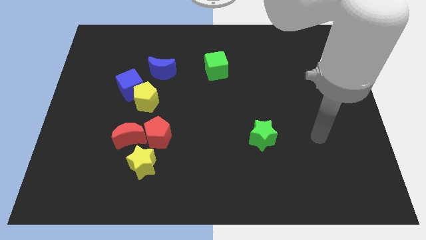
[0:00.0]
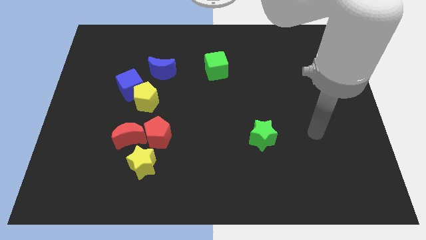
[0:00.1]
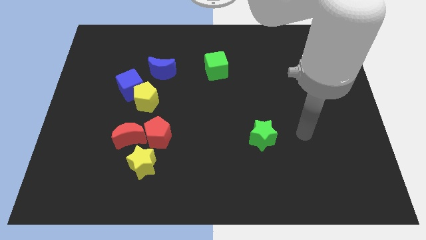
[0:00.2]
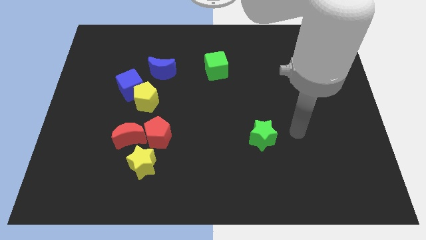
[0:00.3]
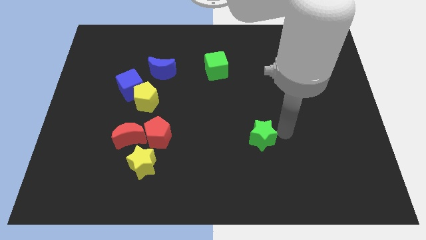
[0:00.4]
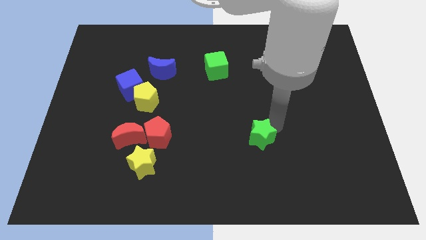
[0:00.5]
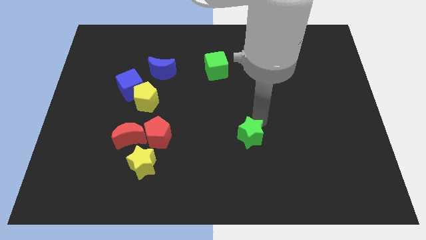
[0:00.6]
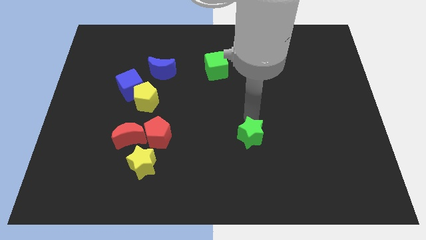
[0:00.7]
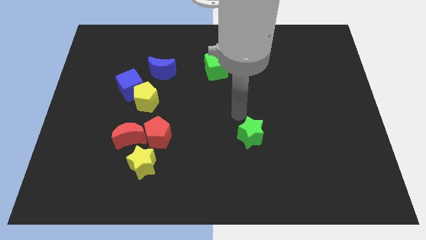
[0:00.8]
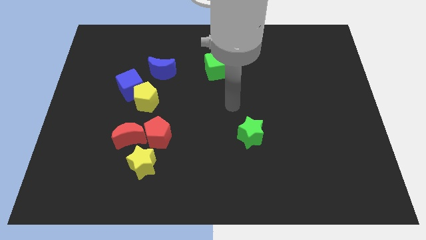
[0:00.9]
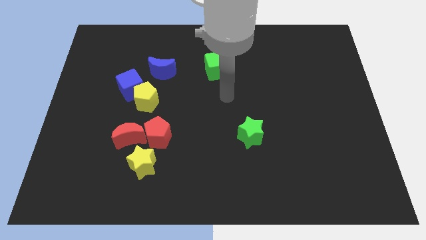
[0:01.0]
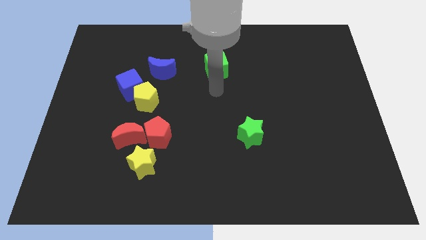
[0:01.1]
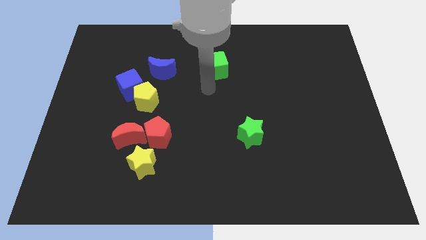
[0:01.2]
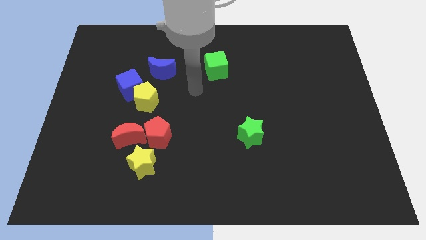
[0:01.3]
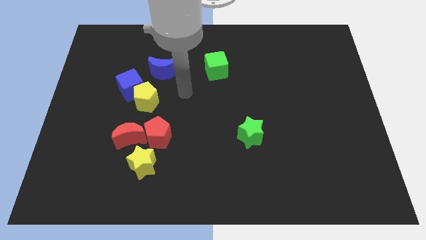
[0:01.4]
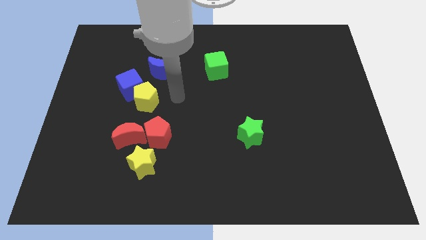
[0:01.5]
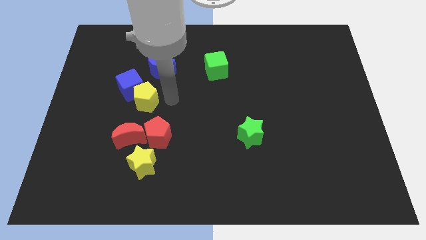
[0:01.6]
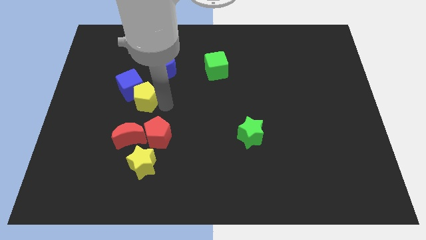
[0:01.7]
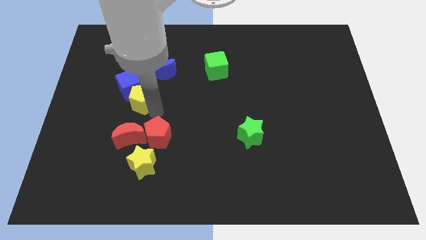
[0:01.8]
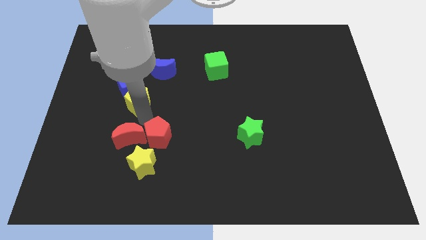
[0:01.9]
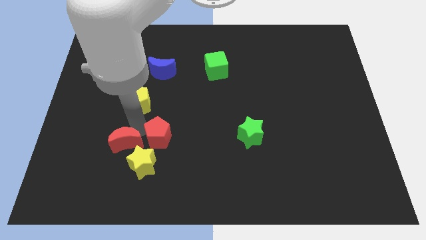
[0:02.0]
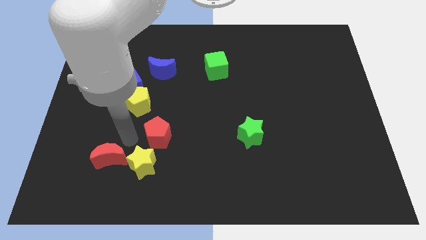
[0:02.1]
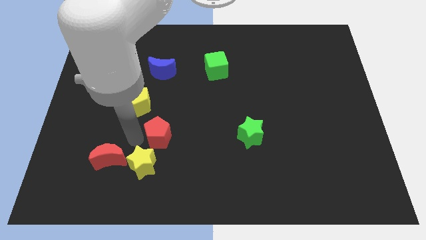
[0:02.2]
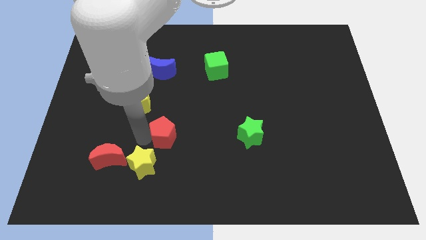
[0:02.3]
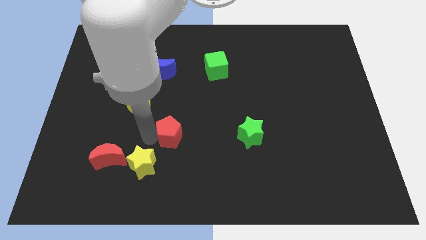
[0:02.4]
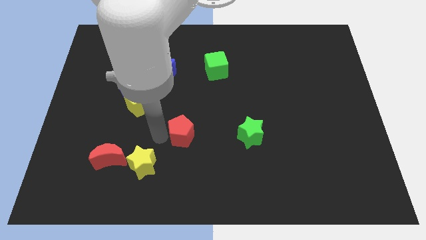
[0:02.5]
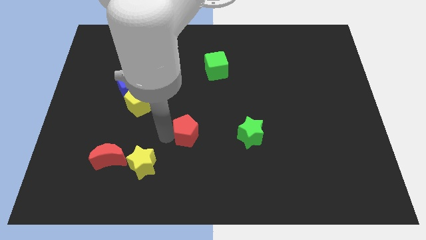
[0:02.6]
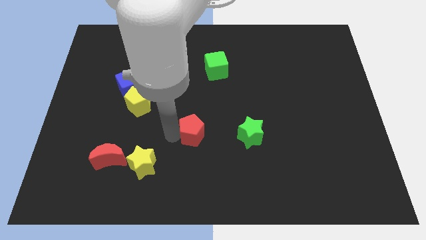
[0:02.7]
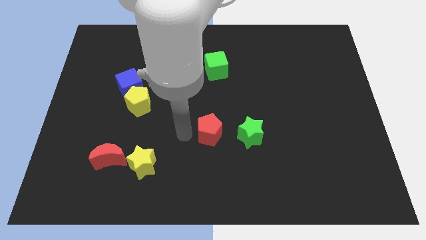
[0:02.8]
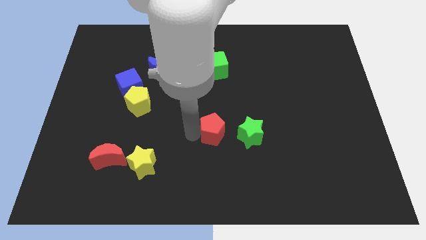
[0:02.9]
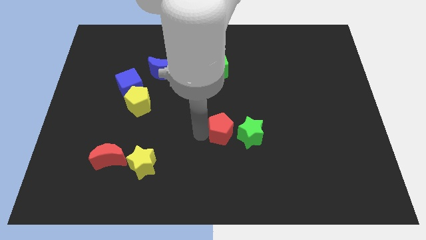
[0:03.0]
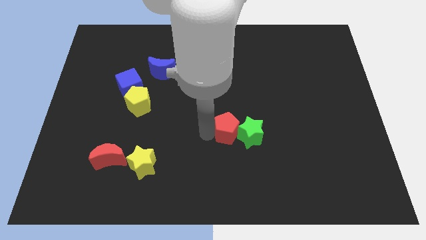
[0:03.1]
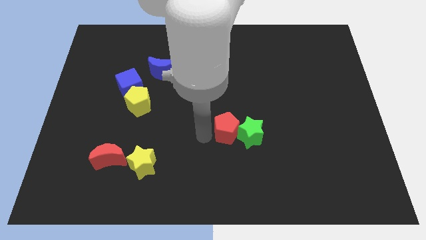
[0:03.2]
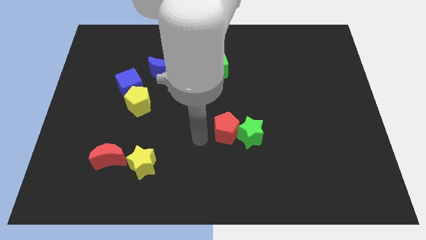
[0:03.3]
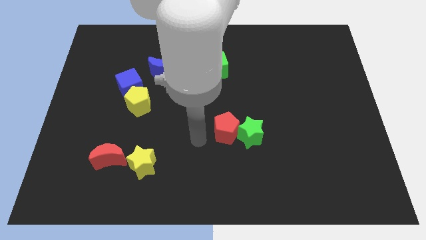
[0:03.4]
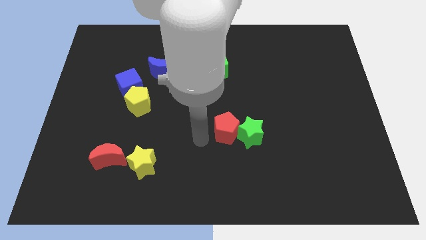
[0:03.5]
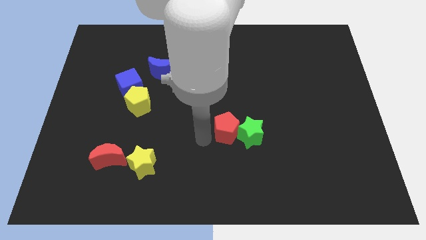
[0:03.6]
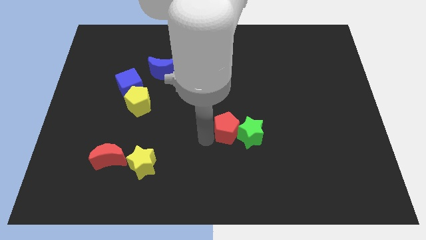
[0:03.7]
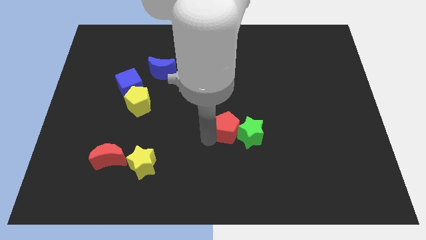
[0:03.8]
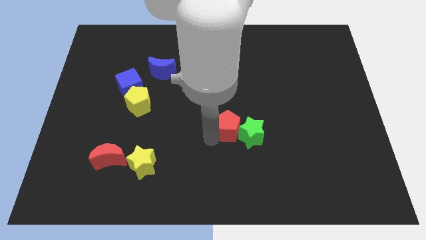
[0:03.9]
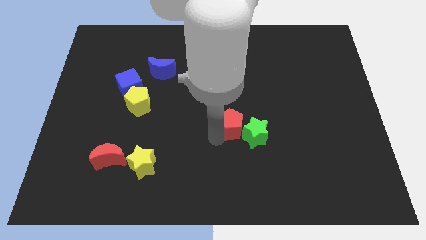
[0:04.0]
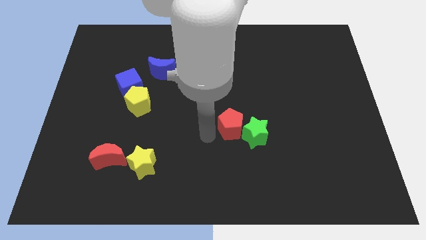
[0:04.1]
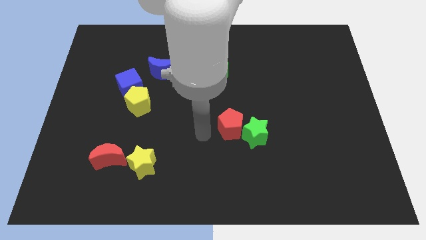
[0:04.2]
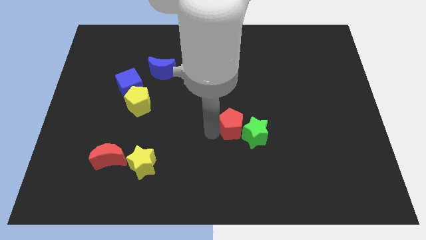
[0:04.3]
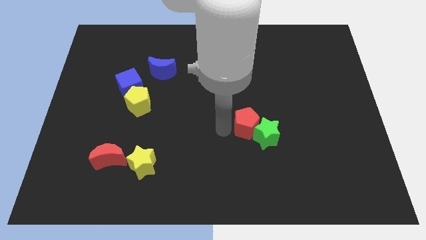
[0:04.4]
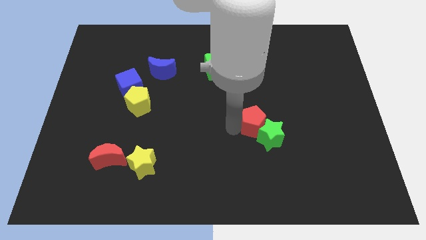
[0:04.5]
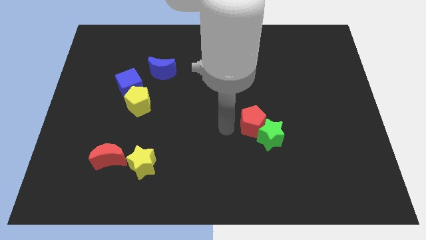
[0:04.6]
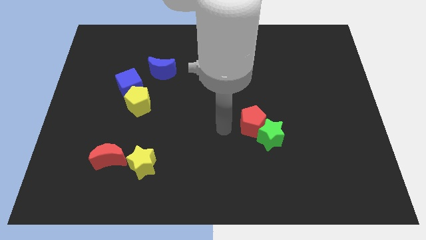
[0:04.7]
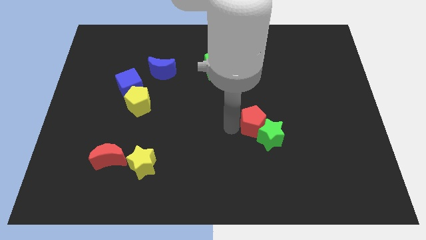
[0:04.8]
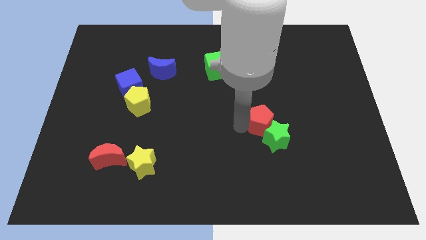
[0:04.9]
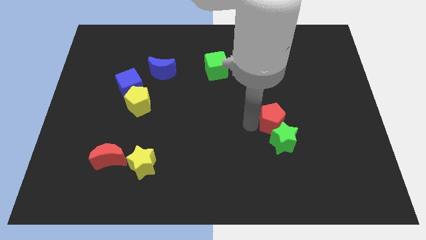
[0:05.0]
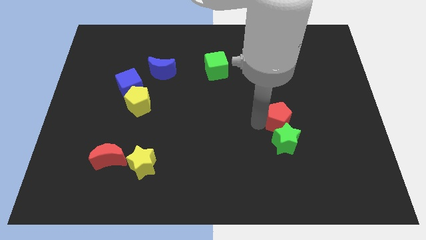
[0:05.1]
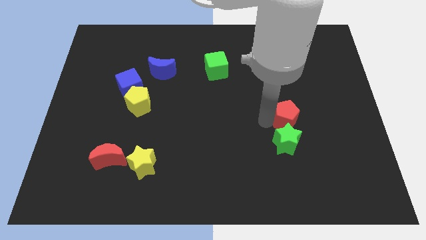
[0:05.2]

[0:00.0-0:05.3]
slide the red pentagon to the top right of the green star

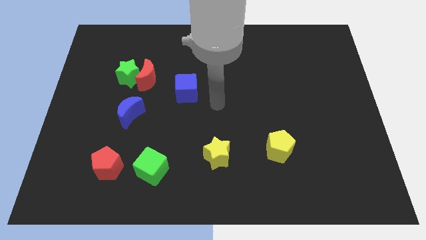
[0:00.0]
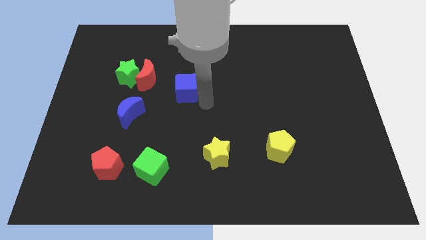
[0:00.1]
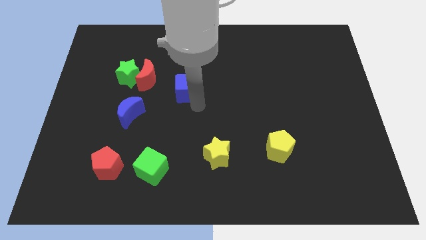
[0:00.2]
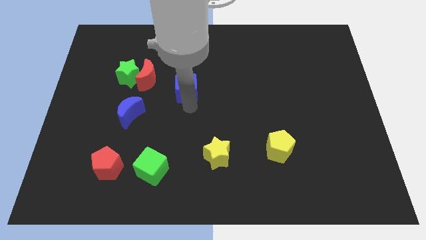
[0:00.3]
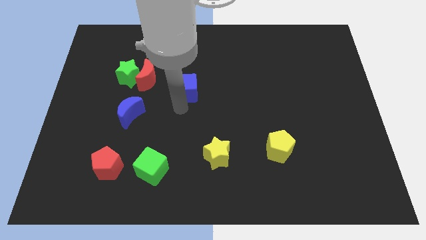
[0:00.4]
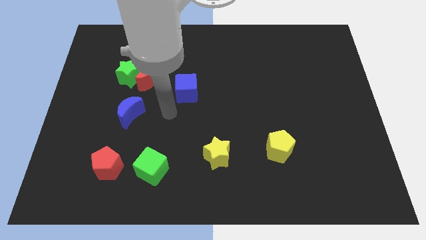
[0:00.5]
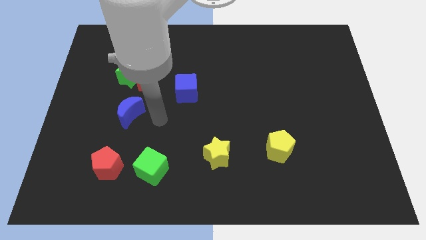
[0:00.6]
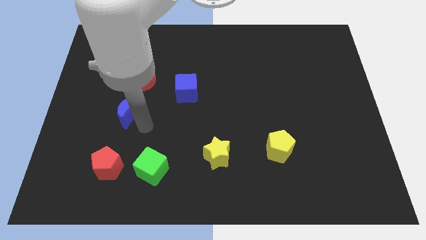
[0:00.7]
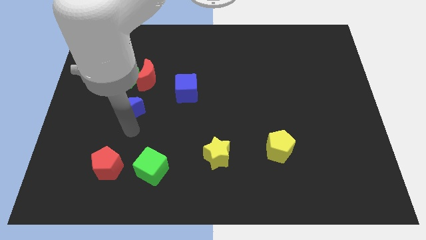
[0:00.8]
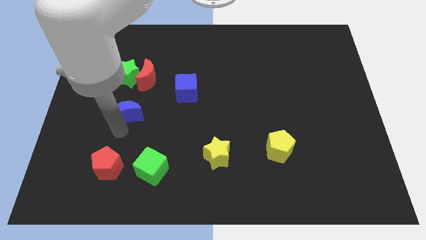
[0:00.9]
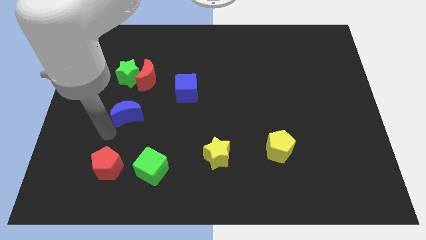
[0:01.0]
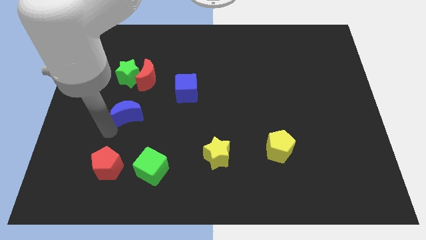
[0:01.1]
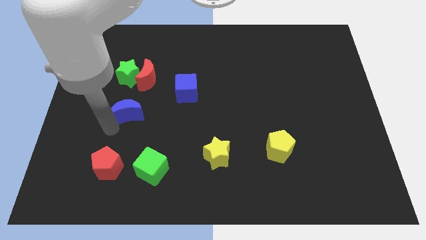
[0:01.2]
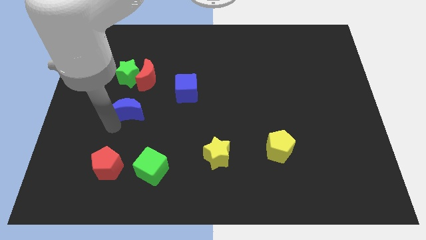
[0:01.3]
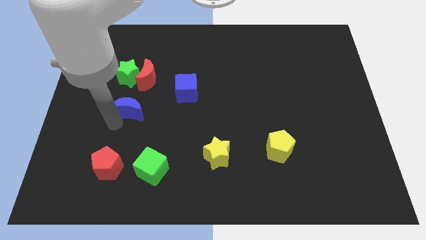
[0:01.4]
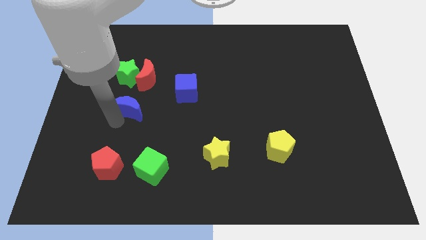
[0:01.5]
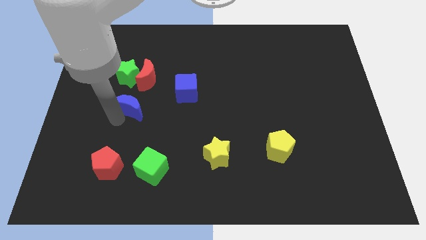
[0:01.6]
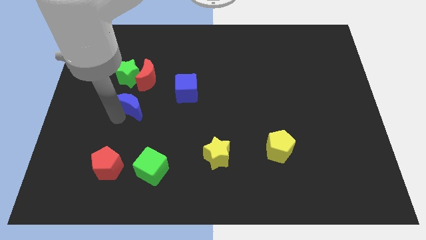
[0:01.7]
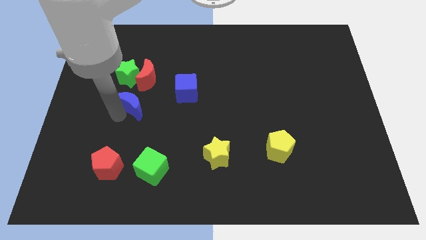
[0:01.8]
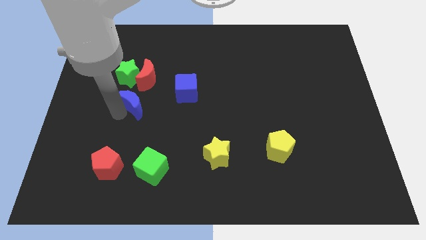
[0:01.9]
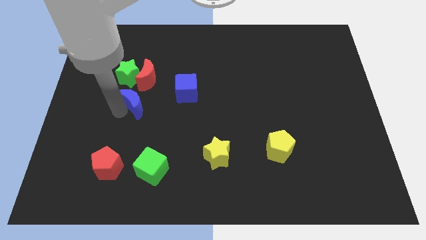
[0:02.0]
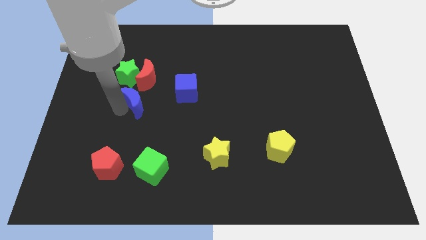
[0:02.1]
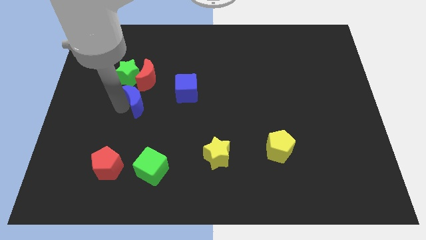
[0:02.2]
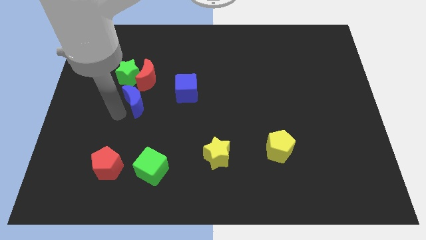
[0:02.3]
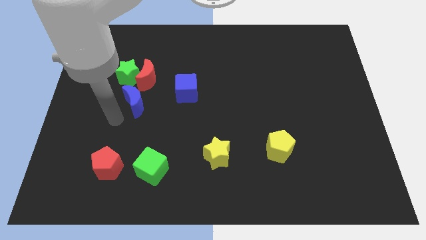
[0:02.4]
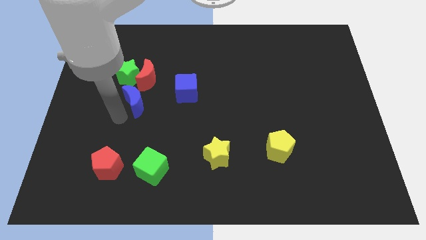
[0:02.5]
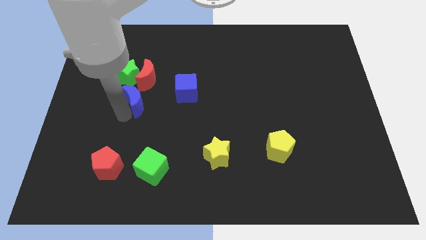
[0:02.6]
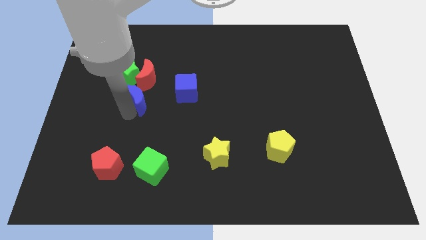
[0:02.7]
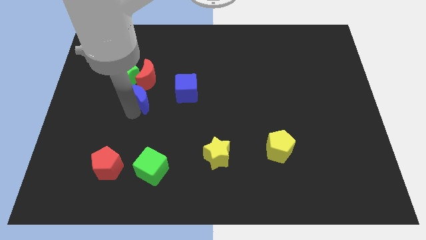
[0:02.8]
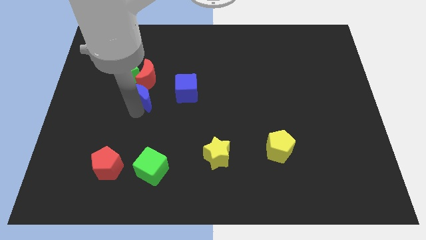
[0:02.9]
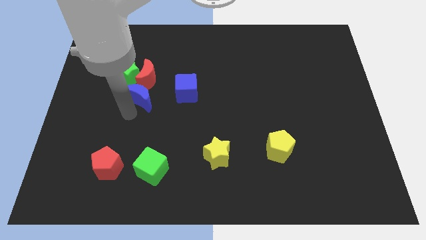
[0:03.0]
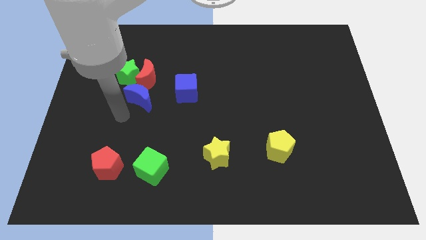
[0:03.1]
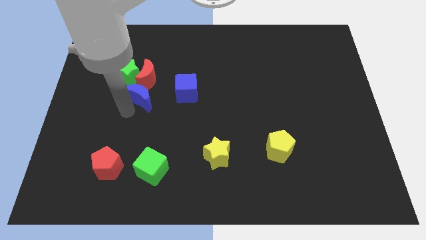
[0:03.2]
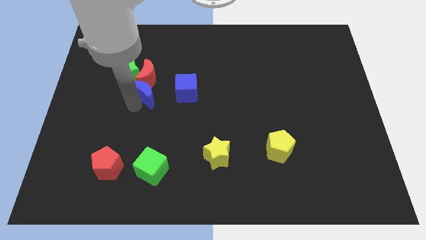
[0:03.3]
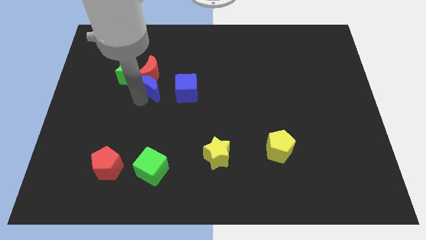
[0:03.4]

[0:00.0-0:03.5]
move the blue moon just right of the green star
